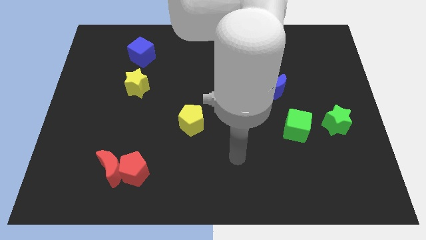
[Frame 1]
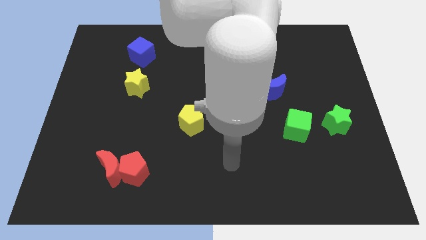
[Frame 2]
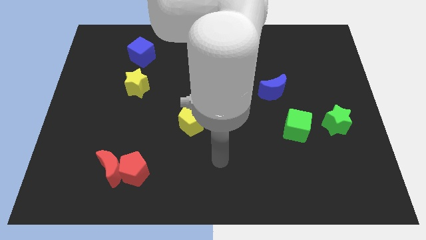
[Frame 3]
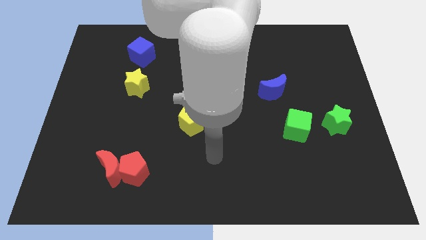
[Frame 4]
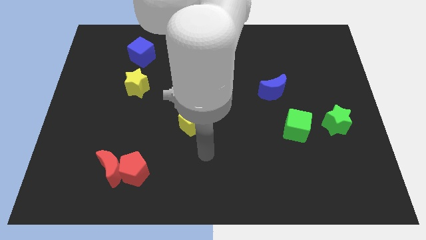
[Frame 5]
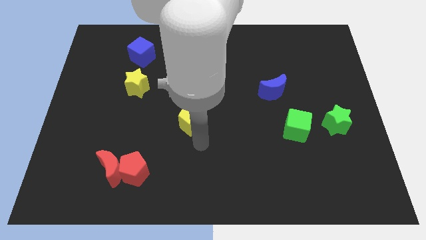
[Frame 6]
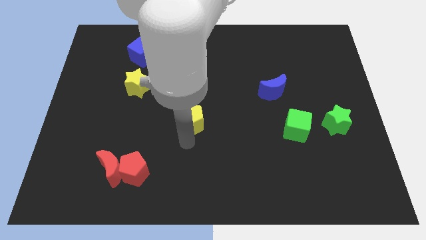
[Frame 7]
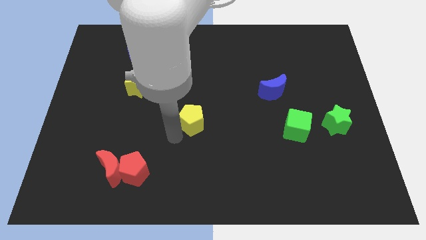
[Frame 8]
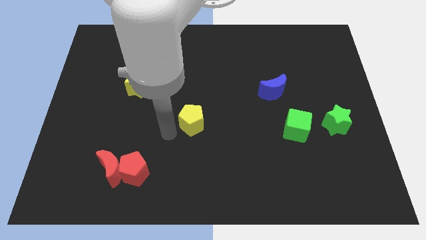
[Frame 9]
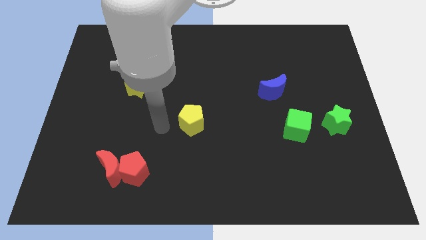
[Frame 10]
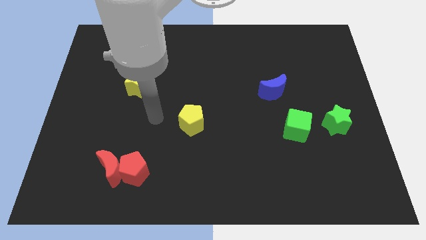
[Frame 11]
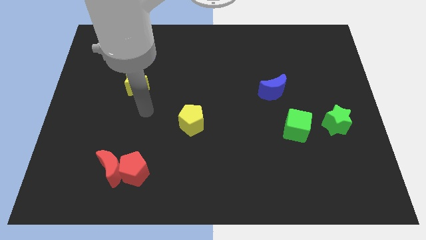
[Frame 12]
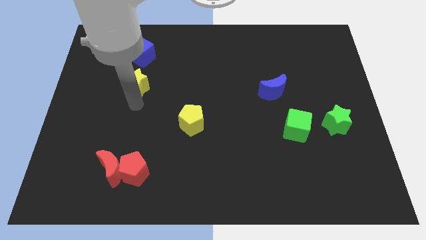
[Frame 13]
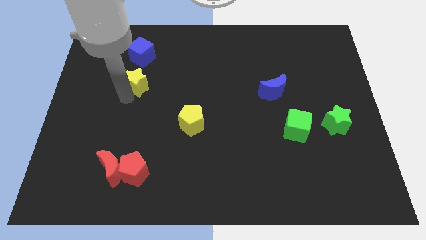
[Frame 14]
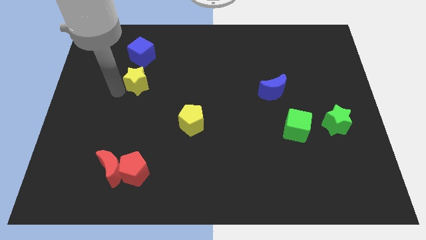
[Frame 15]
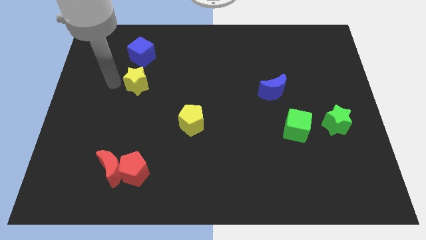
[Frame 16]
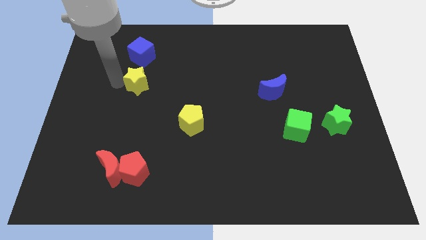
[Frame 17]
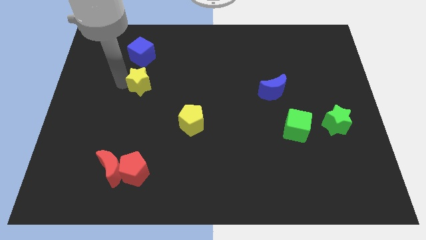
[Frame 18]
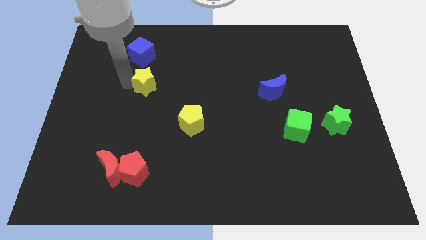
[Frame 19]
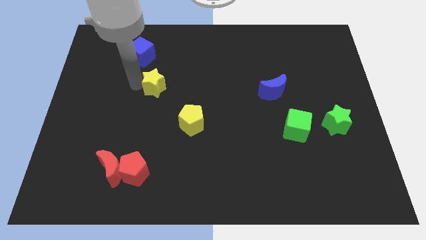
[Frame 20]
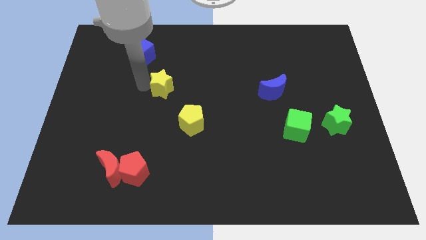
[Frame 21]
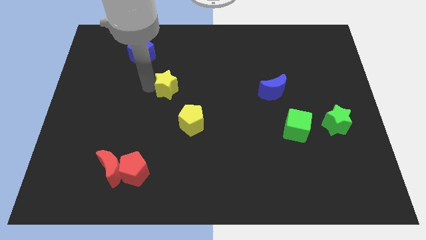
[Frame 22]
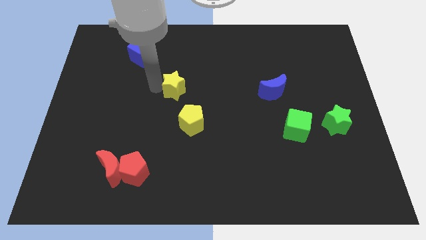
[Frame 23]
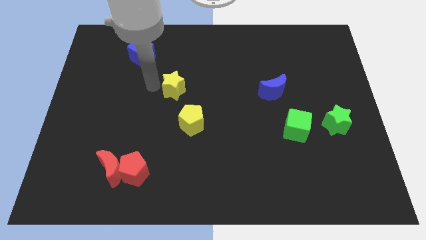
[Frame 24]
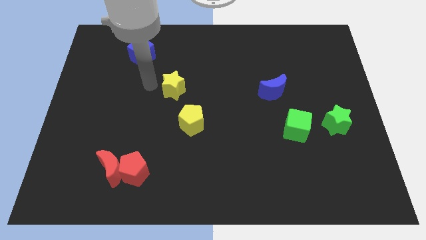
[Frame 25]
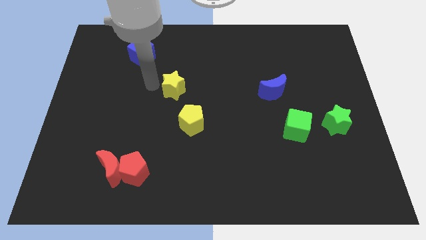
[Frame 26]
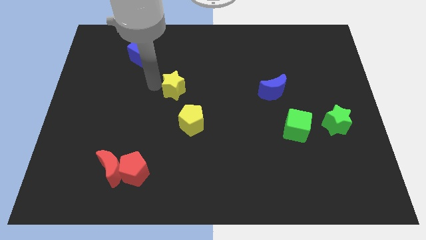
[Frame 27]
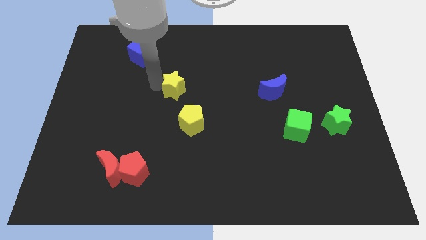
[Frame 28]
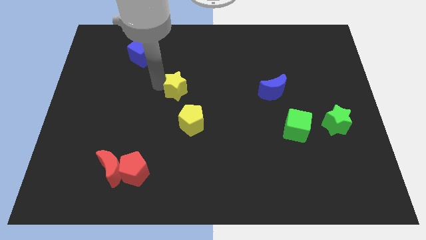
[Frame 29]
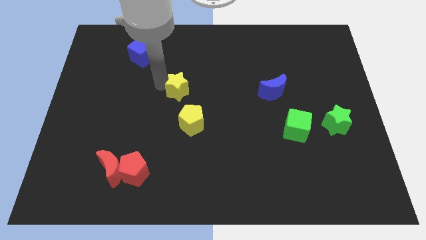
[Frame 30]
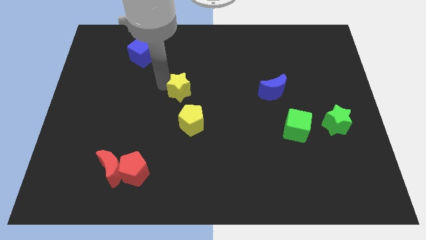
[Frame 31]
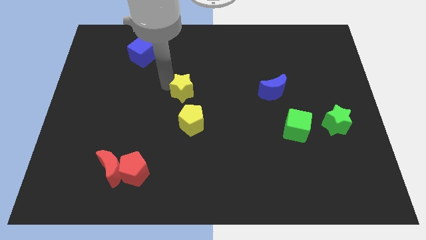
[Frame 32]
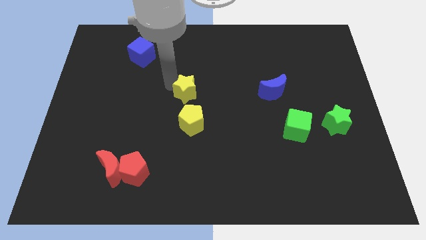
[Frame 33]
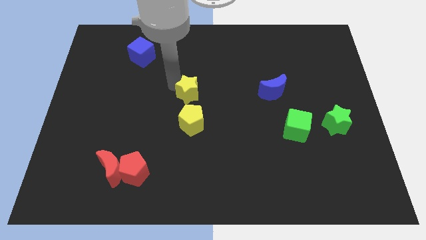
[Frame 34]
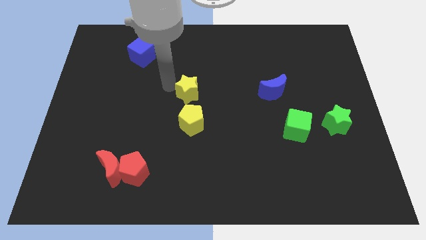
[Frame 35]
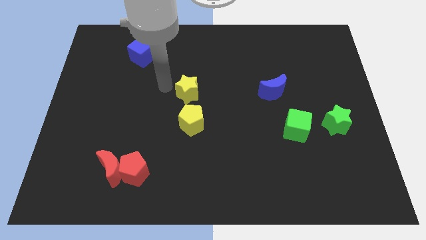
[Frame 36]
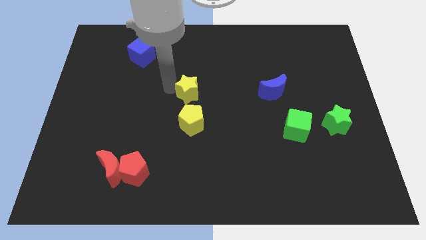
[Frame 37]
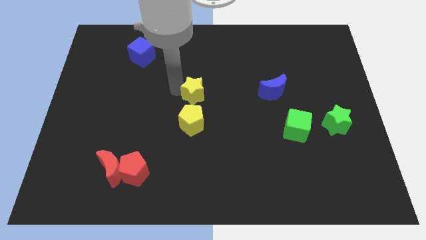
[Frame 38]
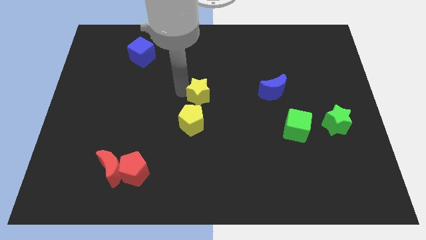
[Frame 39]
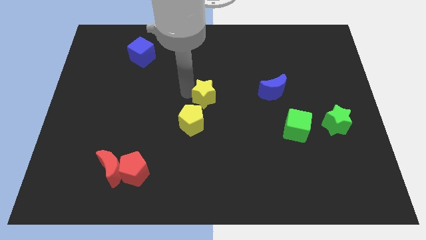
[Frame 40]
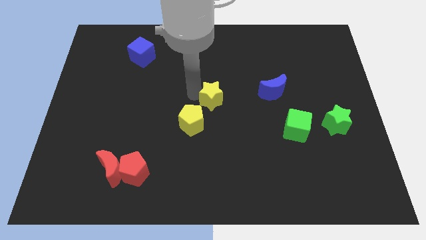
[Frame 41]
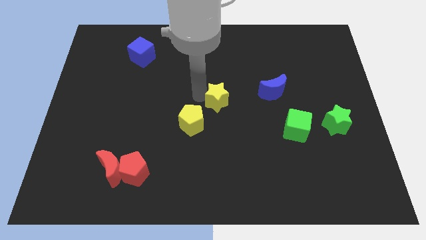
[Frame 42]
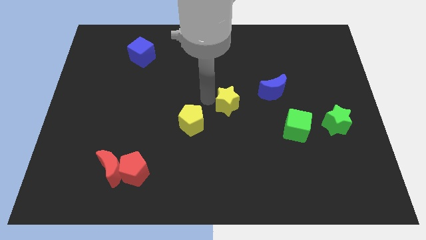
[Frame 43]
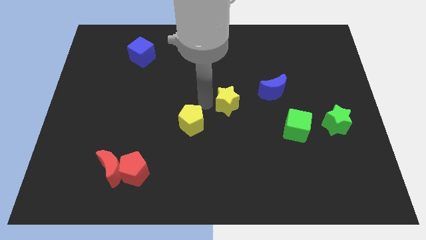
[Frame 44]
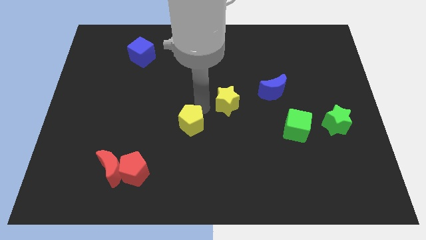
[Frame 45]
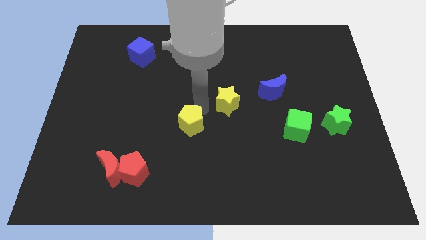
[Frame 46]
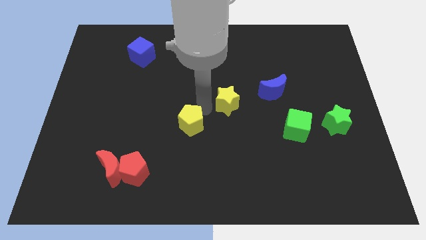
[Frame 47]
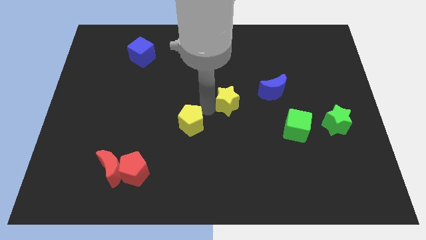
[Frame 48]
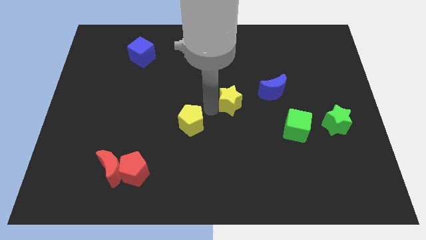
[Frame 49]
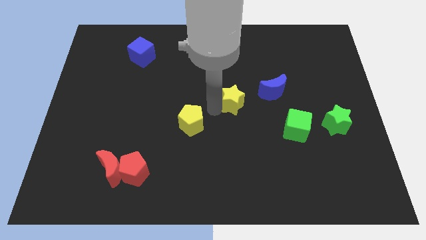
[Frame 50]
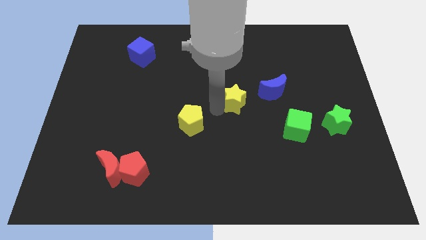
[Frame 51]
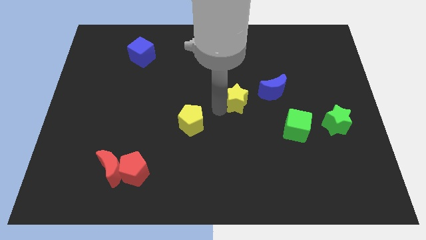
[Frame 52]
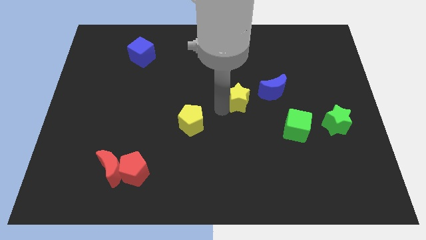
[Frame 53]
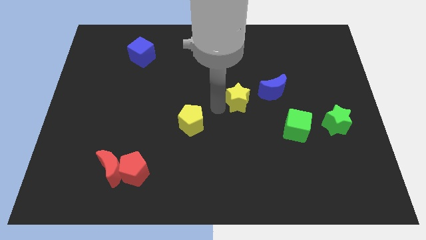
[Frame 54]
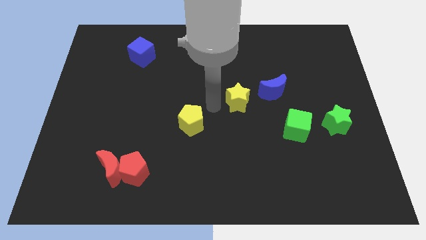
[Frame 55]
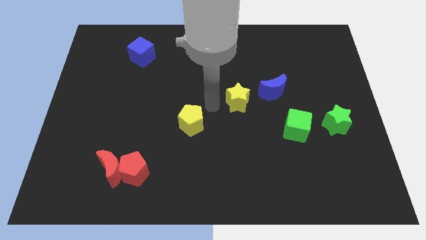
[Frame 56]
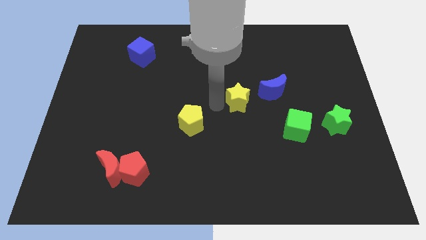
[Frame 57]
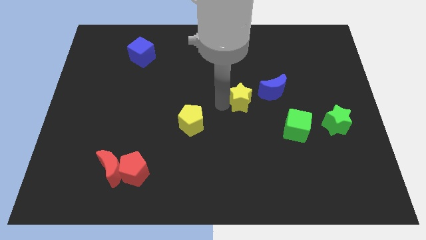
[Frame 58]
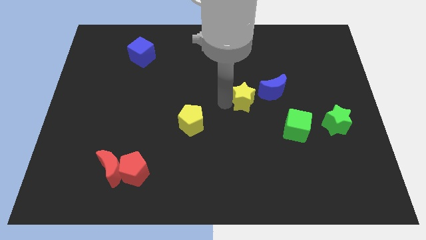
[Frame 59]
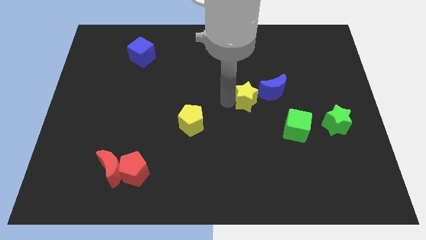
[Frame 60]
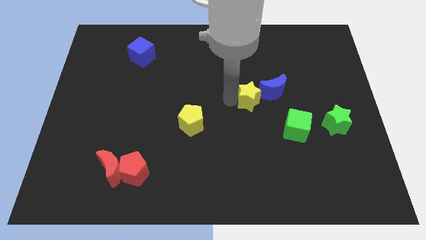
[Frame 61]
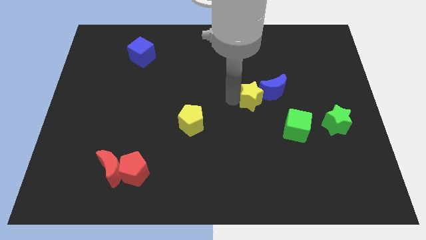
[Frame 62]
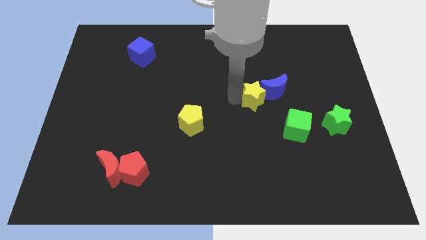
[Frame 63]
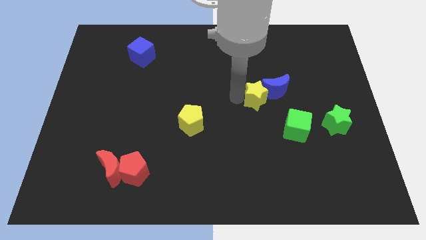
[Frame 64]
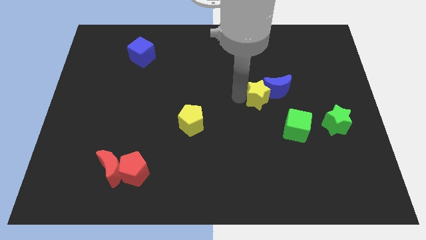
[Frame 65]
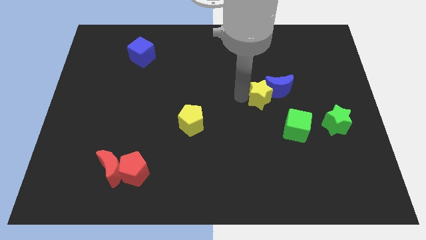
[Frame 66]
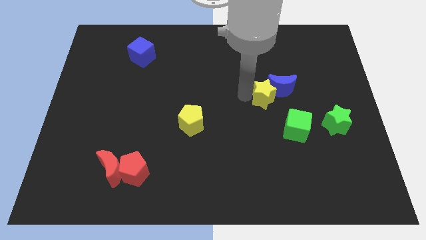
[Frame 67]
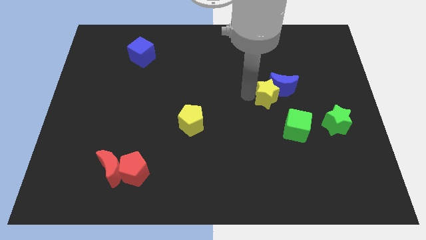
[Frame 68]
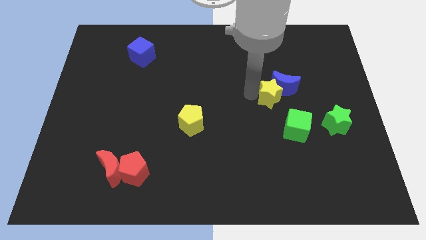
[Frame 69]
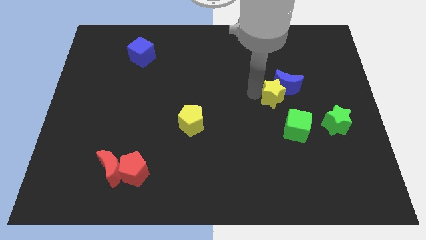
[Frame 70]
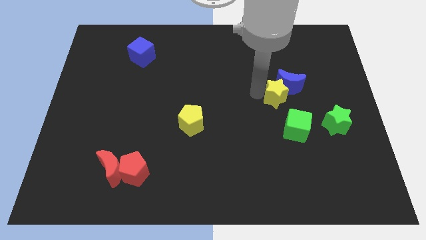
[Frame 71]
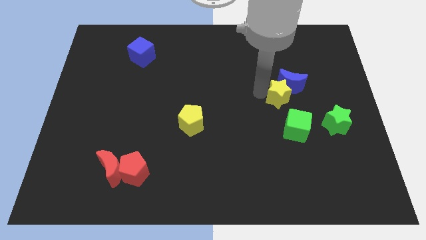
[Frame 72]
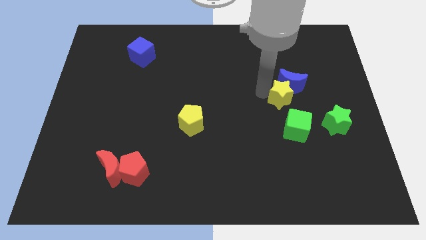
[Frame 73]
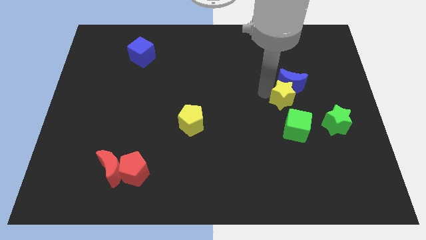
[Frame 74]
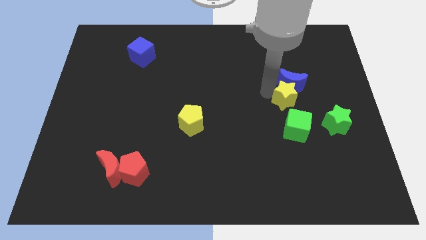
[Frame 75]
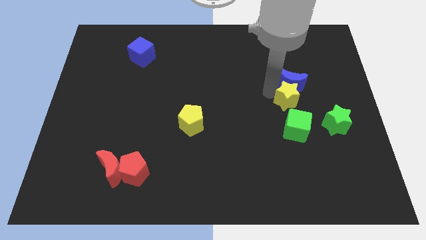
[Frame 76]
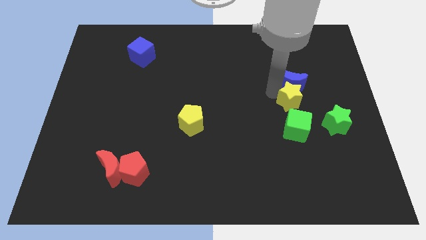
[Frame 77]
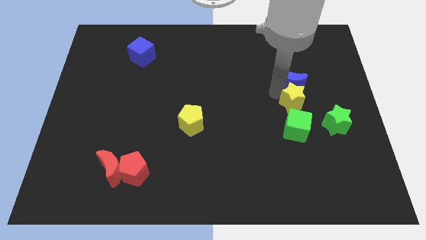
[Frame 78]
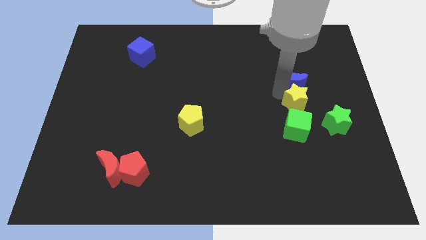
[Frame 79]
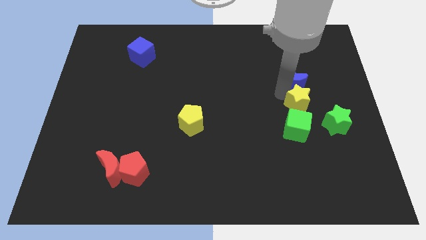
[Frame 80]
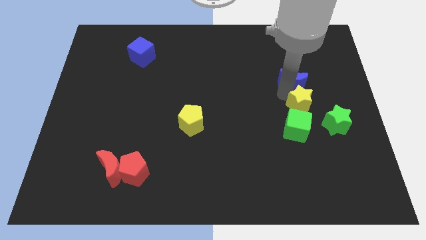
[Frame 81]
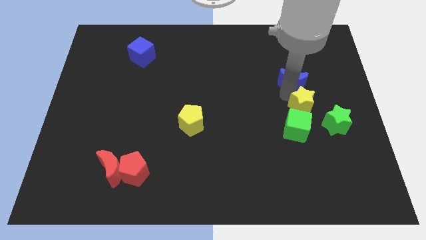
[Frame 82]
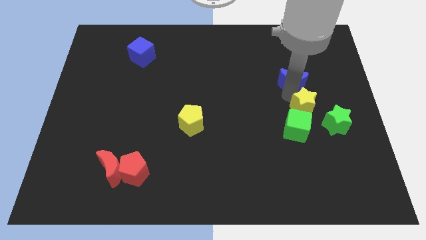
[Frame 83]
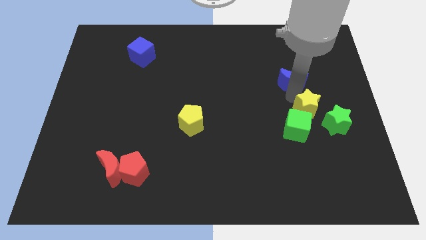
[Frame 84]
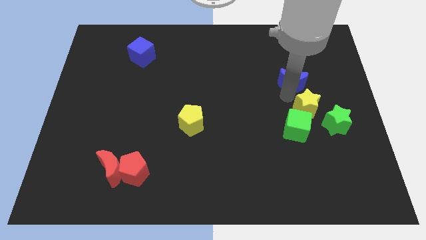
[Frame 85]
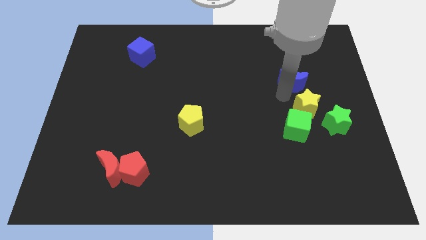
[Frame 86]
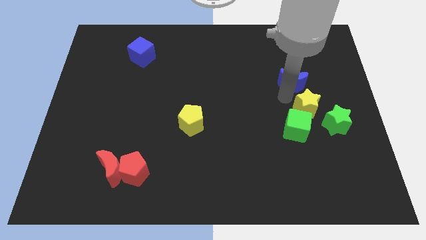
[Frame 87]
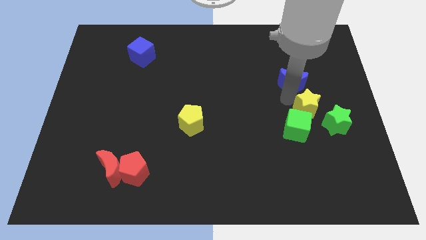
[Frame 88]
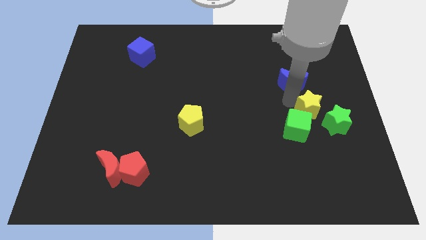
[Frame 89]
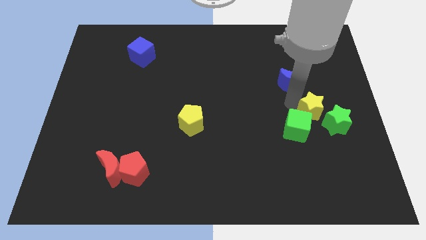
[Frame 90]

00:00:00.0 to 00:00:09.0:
slide the yellow star close to the green star
